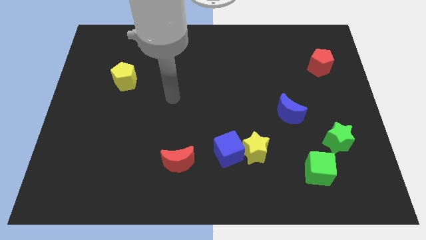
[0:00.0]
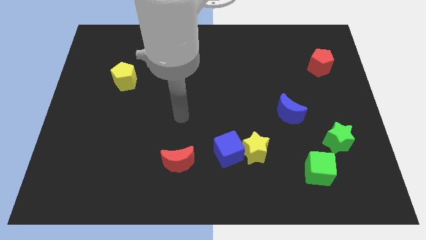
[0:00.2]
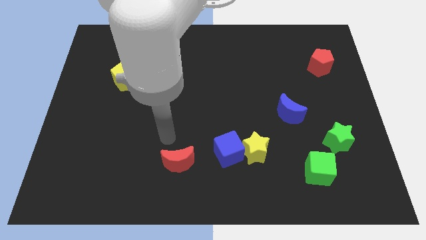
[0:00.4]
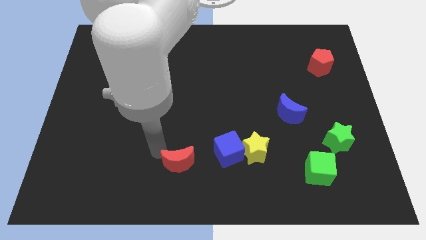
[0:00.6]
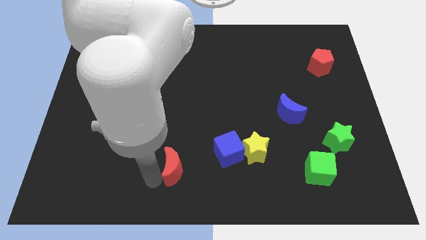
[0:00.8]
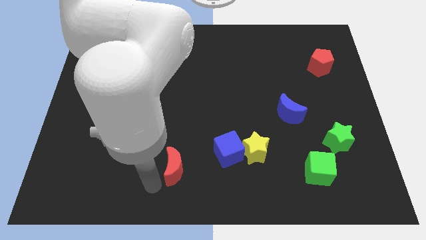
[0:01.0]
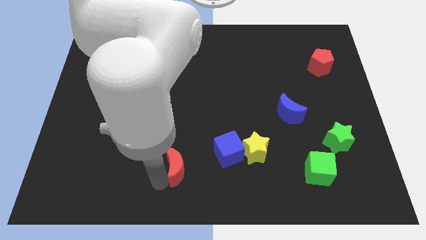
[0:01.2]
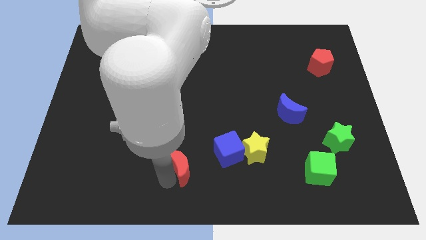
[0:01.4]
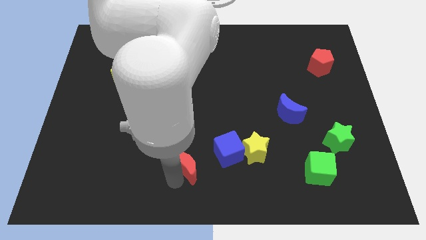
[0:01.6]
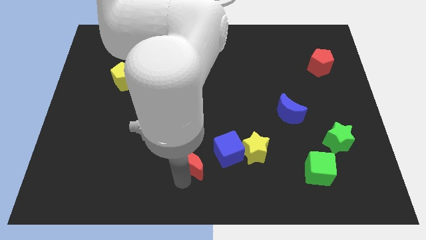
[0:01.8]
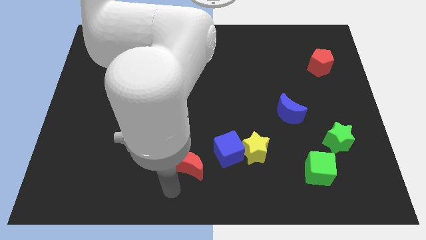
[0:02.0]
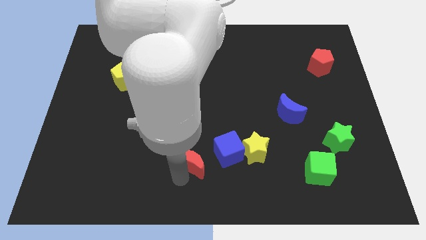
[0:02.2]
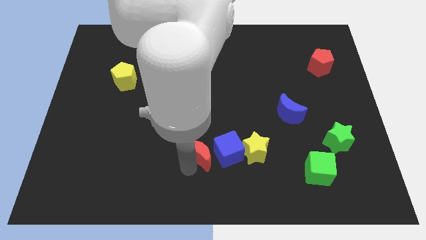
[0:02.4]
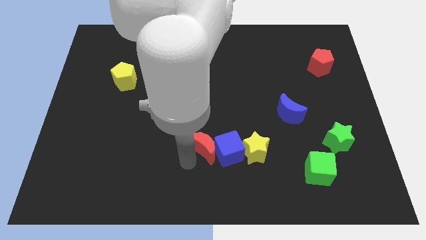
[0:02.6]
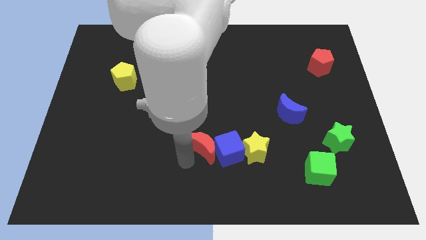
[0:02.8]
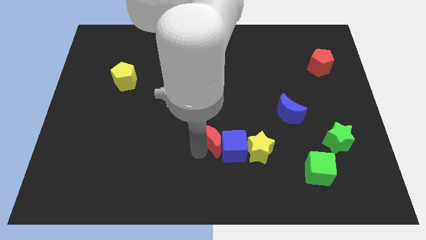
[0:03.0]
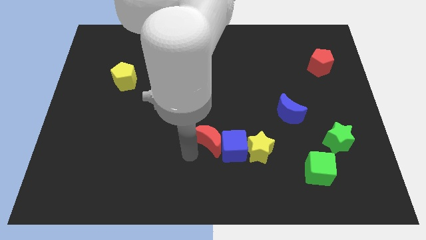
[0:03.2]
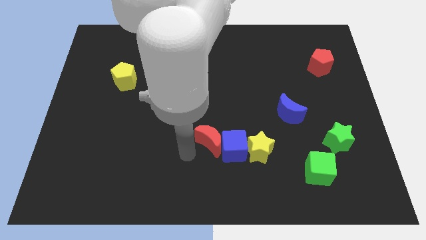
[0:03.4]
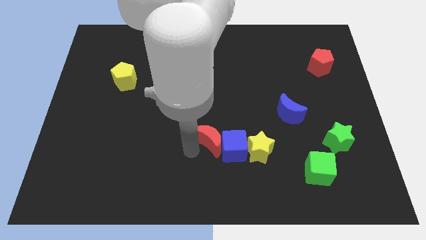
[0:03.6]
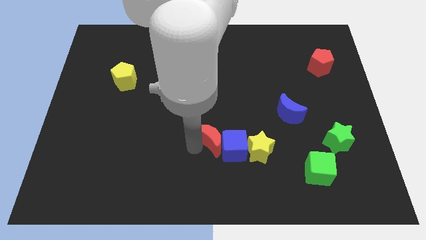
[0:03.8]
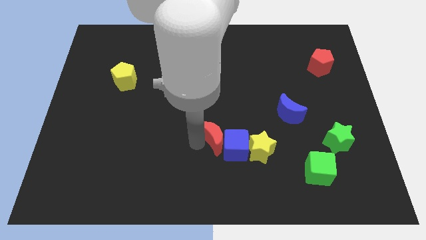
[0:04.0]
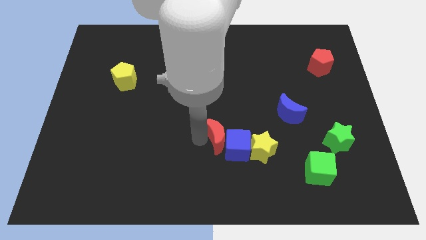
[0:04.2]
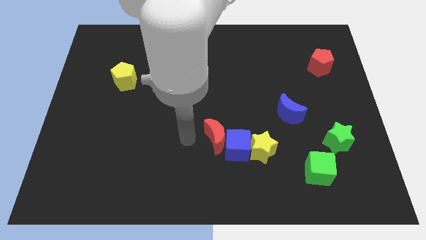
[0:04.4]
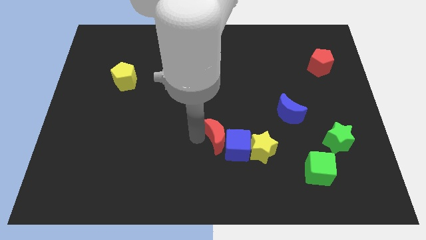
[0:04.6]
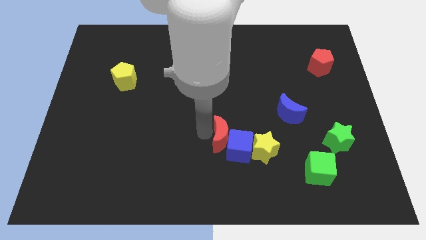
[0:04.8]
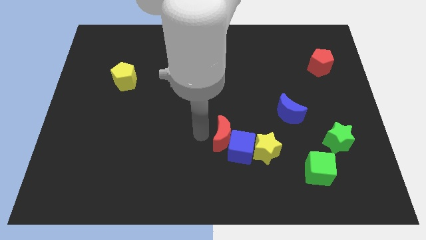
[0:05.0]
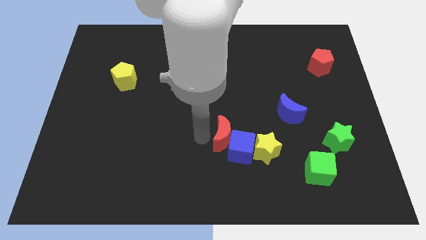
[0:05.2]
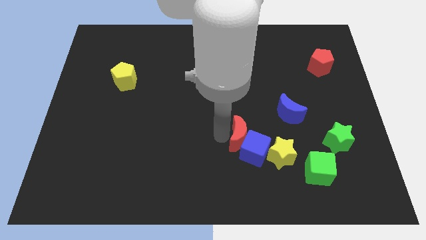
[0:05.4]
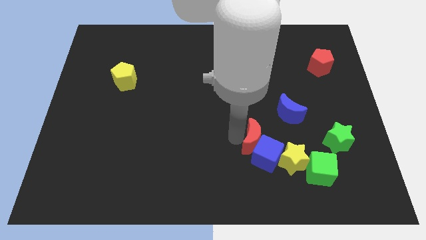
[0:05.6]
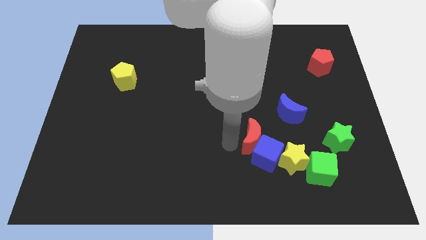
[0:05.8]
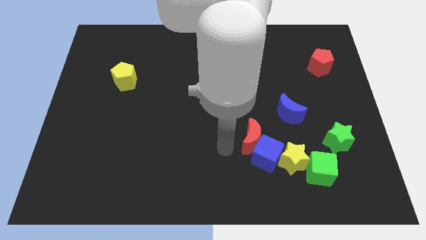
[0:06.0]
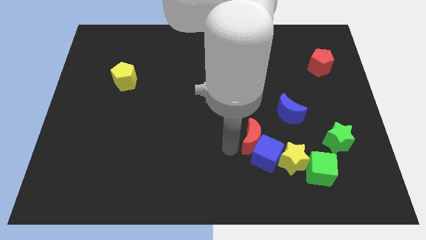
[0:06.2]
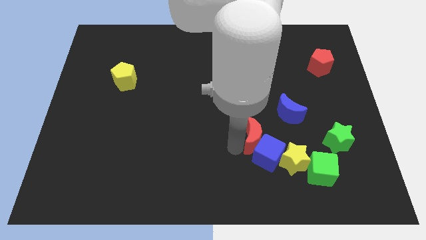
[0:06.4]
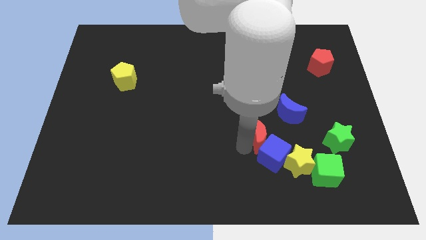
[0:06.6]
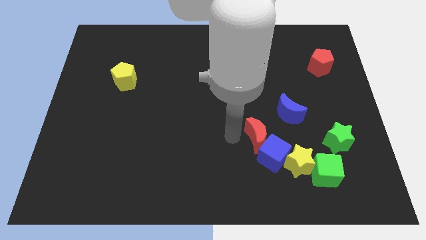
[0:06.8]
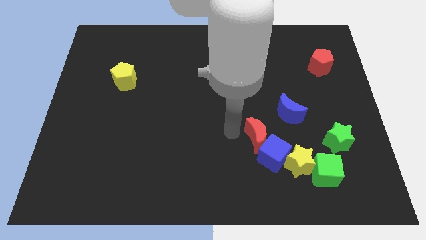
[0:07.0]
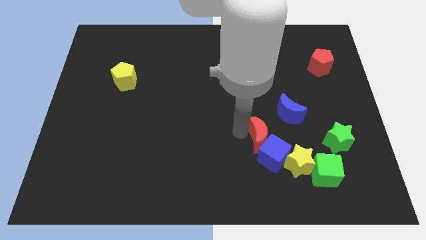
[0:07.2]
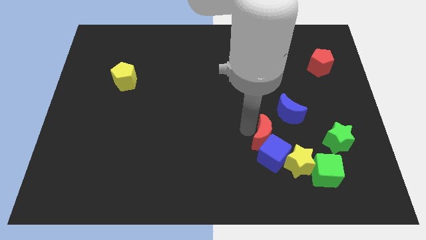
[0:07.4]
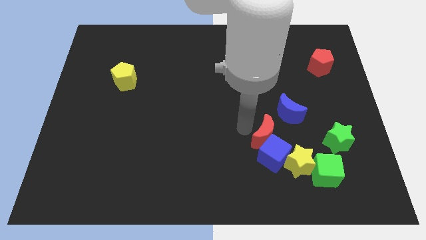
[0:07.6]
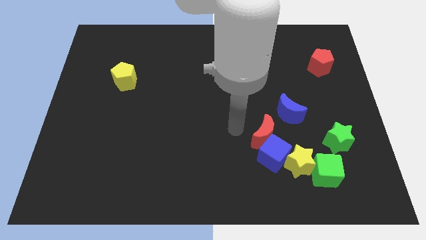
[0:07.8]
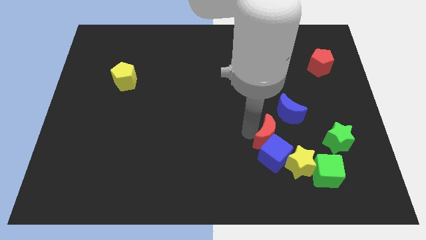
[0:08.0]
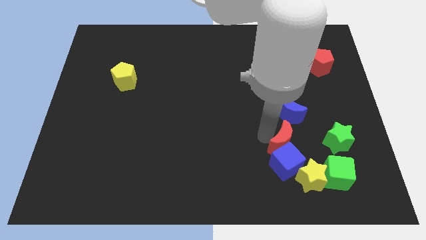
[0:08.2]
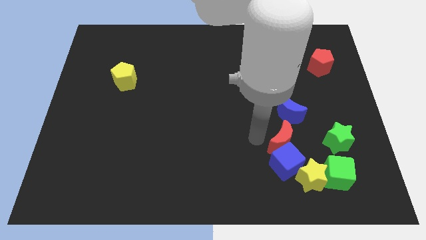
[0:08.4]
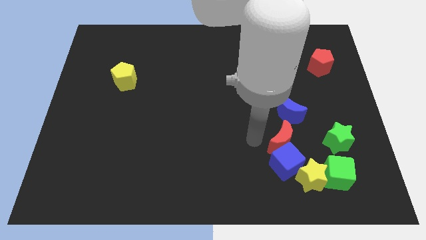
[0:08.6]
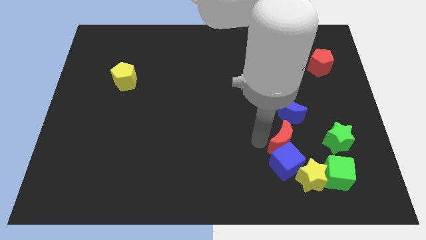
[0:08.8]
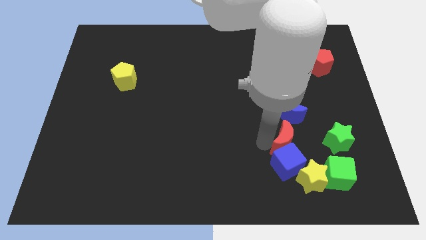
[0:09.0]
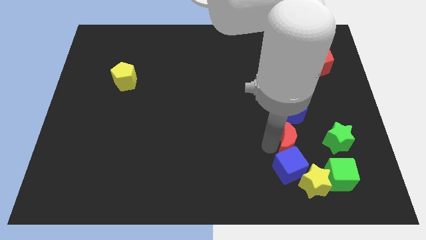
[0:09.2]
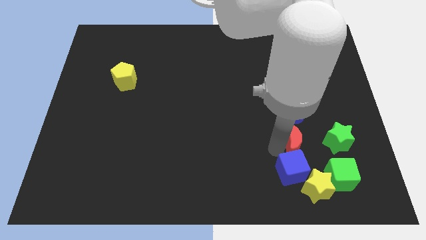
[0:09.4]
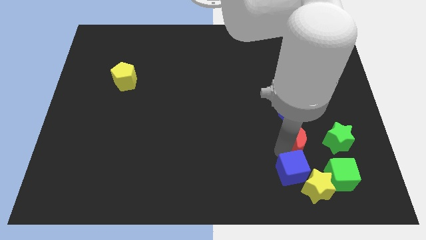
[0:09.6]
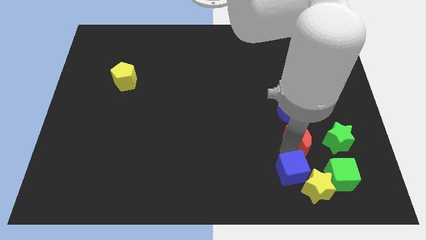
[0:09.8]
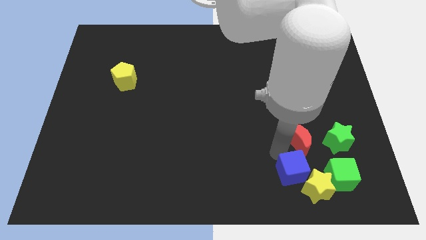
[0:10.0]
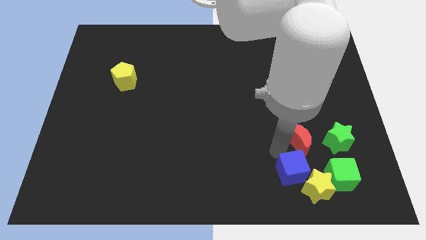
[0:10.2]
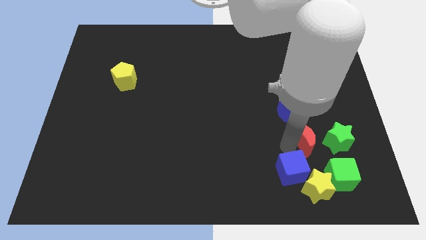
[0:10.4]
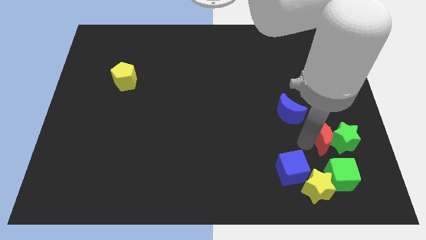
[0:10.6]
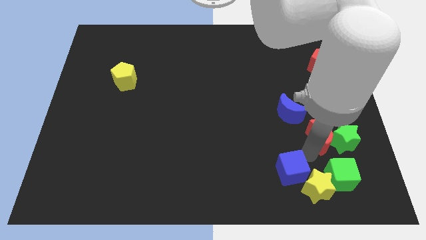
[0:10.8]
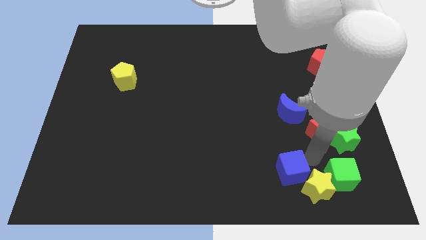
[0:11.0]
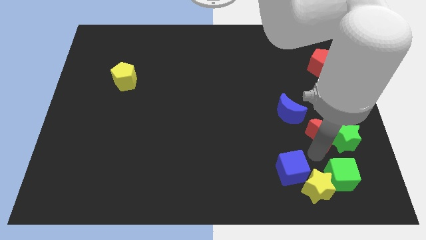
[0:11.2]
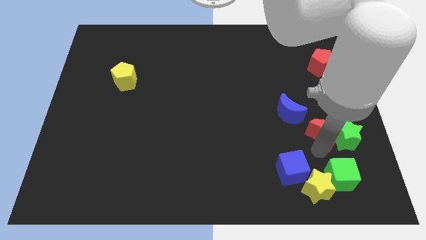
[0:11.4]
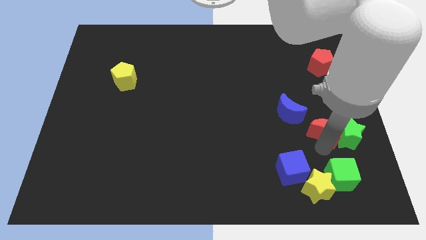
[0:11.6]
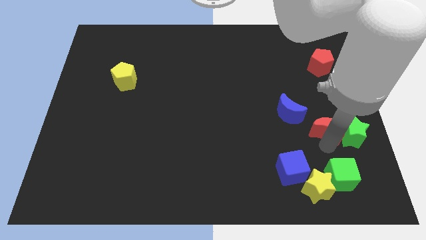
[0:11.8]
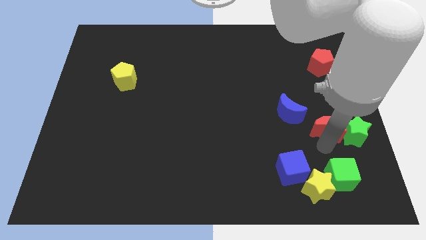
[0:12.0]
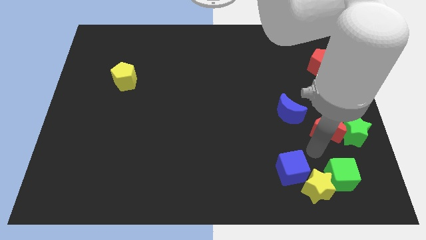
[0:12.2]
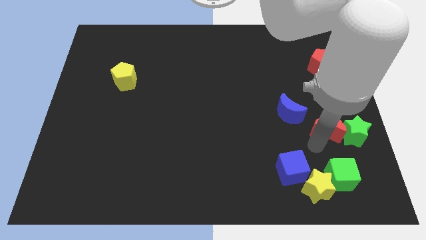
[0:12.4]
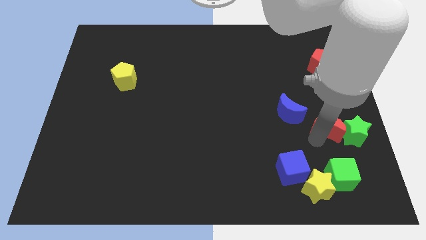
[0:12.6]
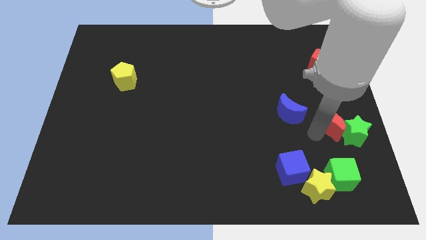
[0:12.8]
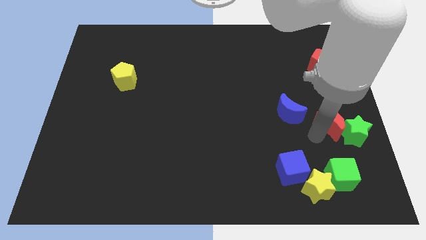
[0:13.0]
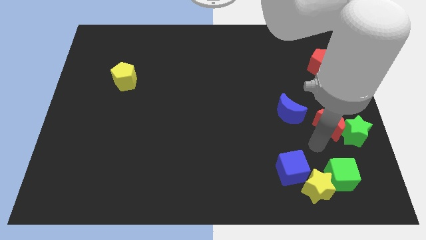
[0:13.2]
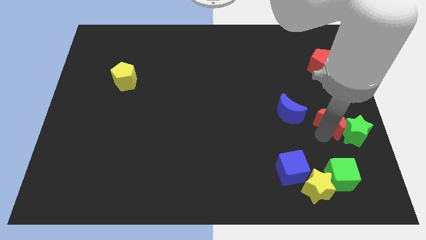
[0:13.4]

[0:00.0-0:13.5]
push the red moon to the center right

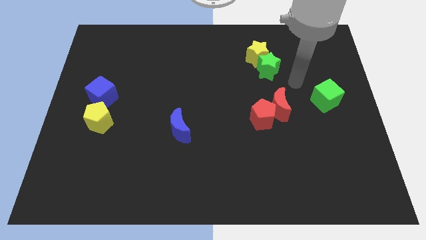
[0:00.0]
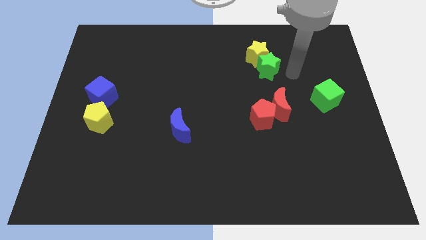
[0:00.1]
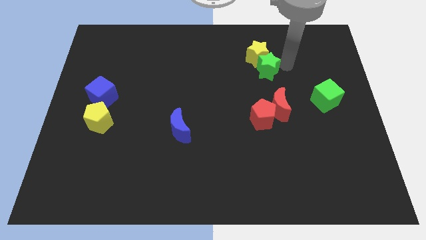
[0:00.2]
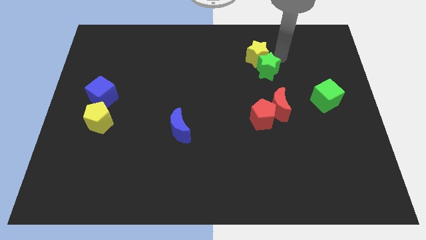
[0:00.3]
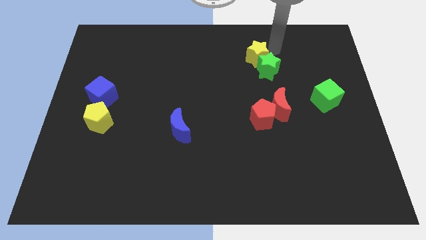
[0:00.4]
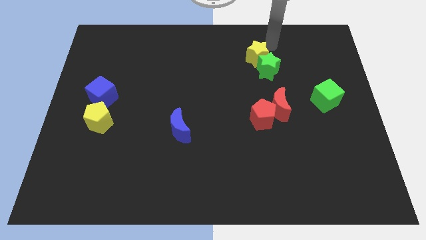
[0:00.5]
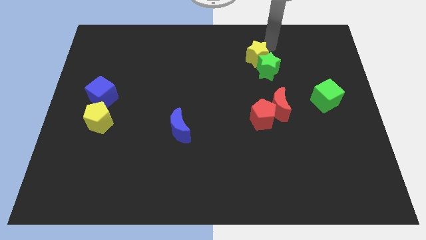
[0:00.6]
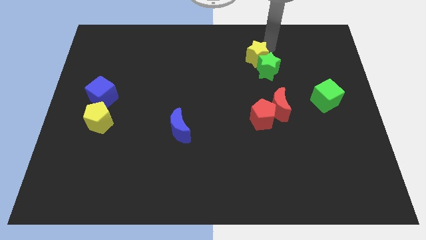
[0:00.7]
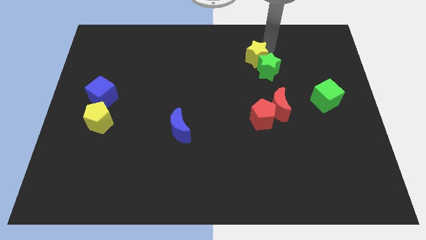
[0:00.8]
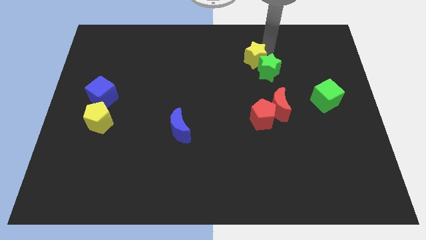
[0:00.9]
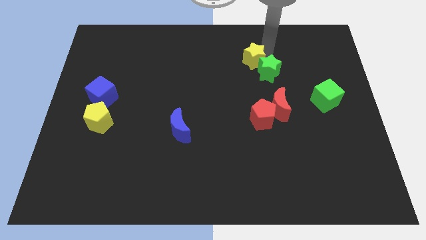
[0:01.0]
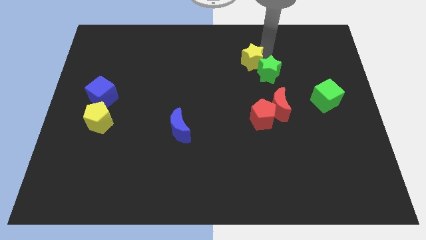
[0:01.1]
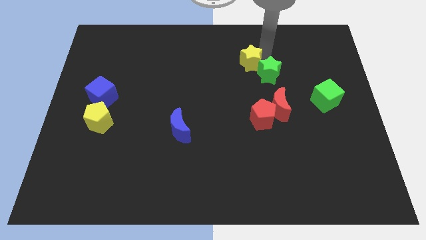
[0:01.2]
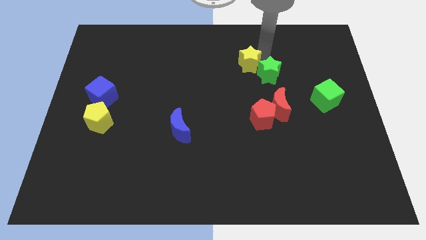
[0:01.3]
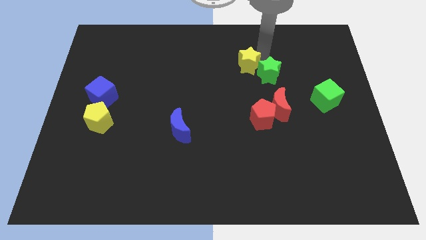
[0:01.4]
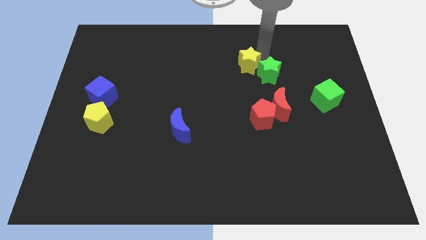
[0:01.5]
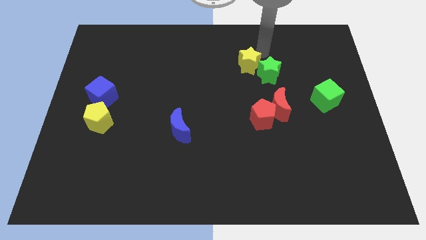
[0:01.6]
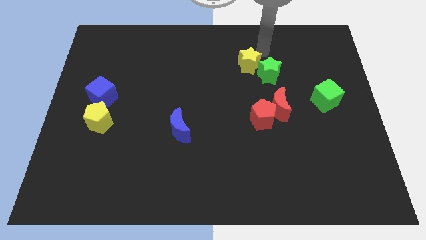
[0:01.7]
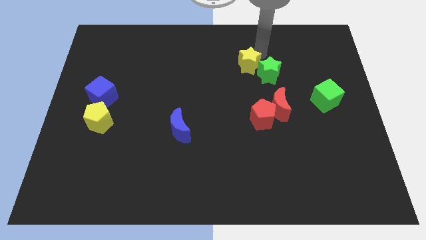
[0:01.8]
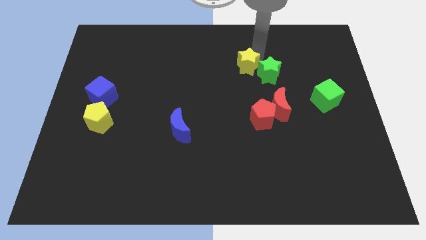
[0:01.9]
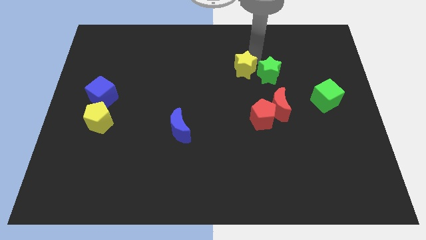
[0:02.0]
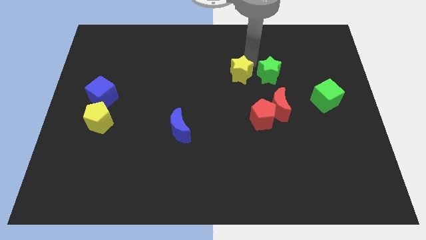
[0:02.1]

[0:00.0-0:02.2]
move the yellow star to the middle of the board
